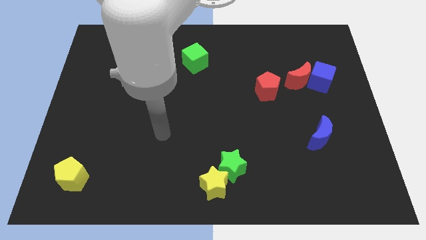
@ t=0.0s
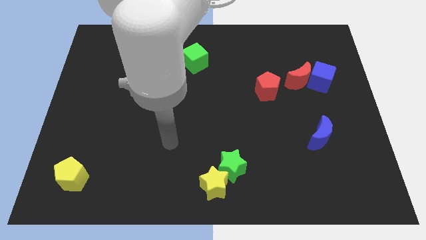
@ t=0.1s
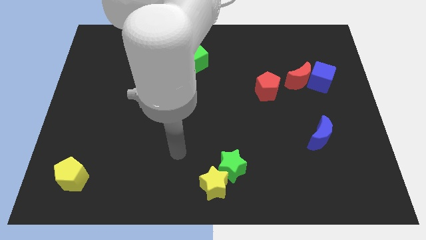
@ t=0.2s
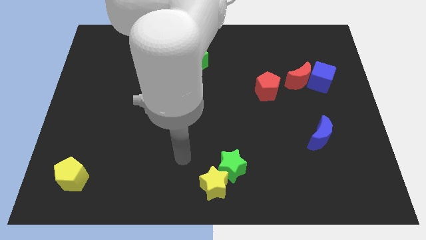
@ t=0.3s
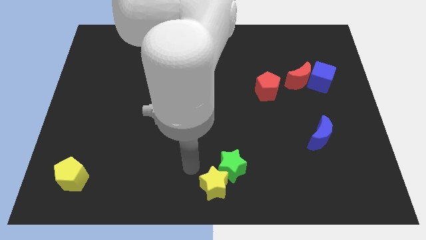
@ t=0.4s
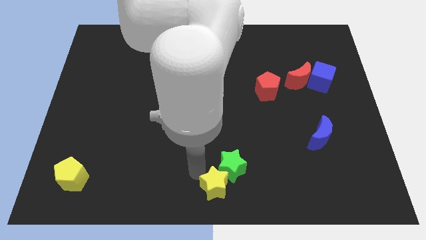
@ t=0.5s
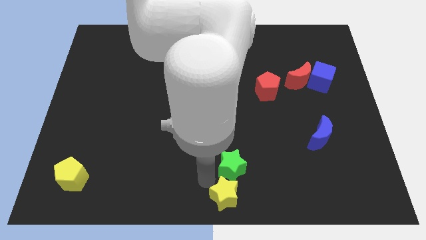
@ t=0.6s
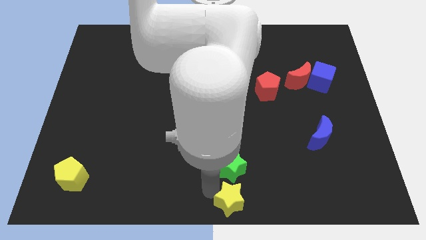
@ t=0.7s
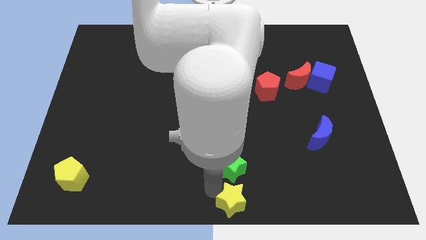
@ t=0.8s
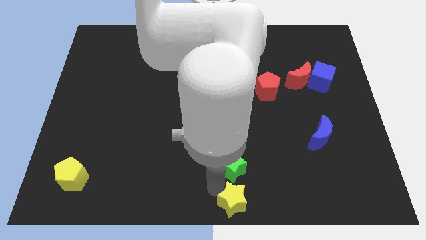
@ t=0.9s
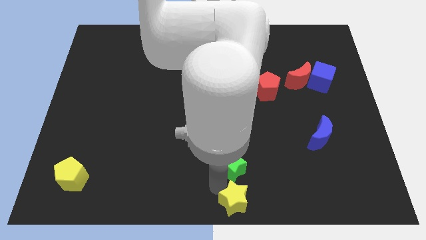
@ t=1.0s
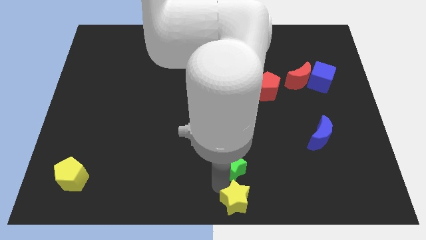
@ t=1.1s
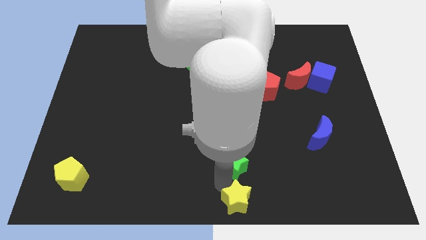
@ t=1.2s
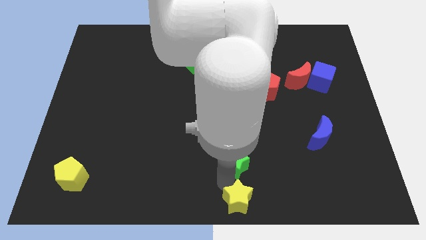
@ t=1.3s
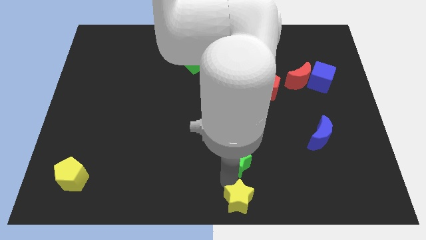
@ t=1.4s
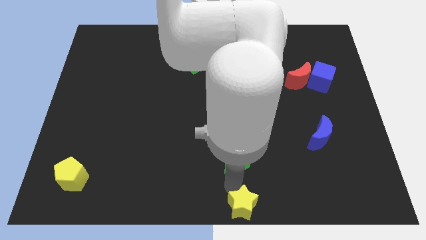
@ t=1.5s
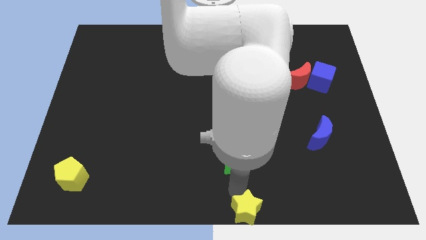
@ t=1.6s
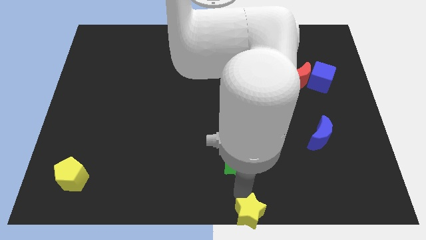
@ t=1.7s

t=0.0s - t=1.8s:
move the green star away from the yellow star

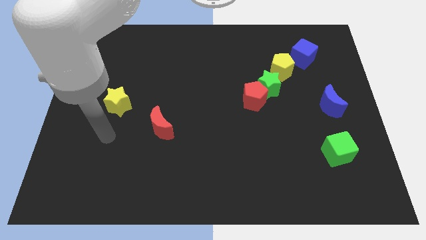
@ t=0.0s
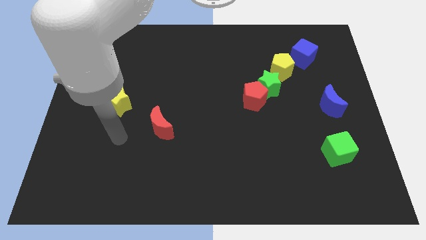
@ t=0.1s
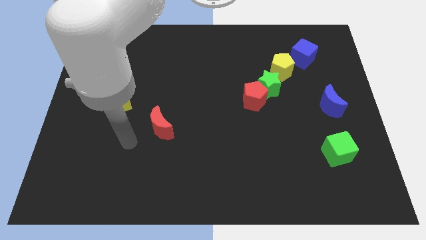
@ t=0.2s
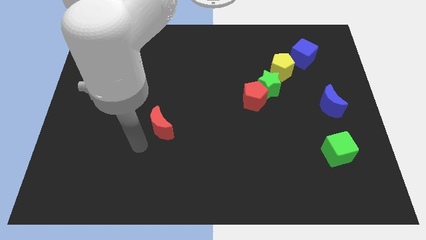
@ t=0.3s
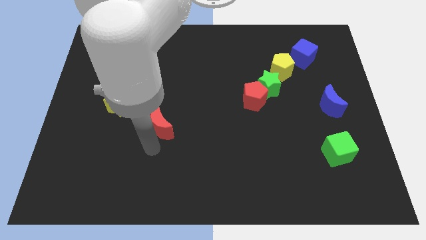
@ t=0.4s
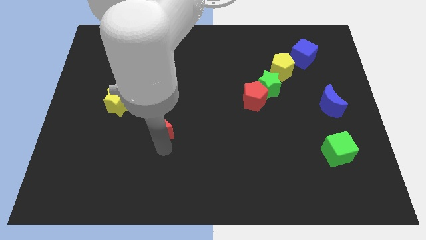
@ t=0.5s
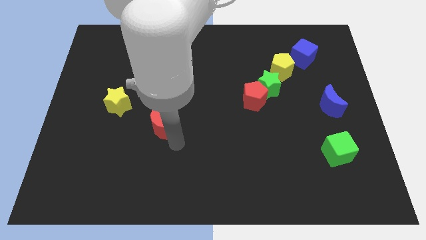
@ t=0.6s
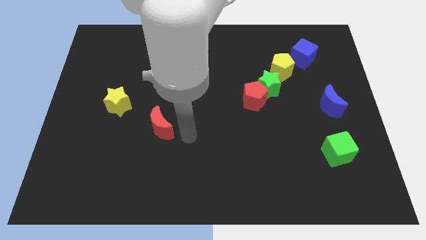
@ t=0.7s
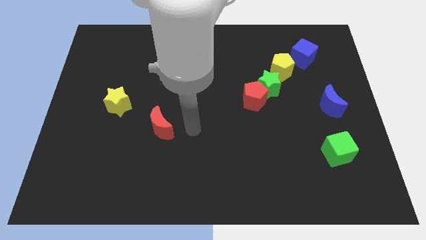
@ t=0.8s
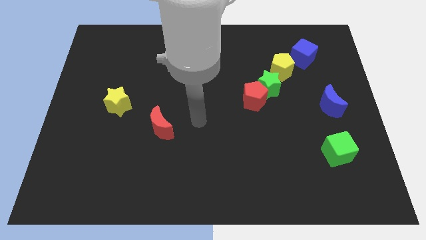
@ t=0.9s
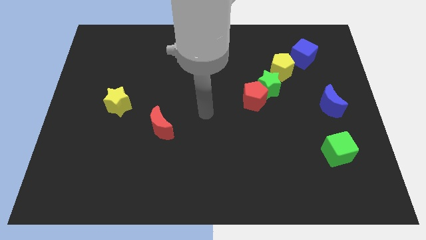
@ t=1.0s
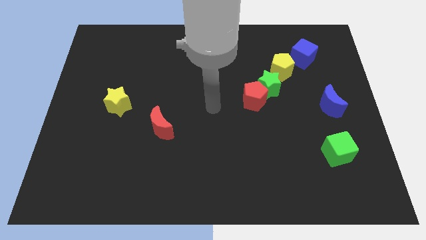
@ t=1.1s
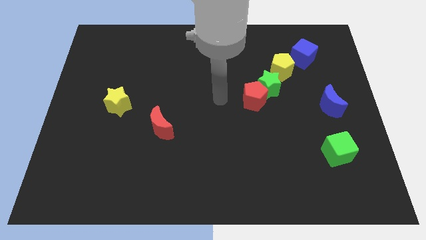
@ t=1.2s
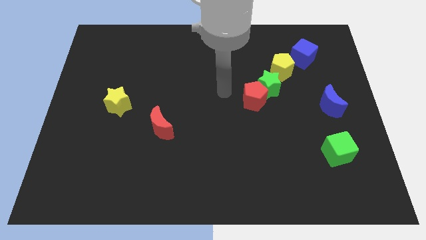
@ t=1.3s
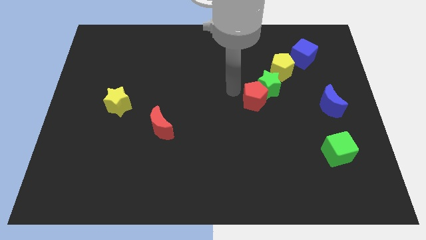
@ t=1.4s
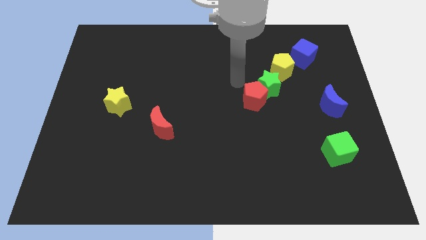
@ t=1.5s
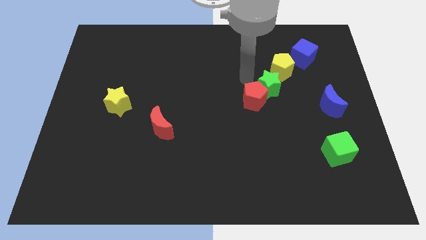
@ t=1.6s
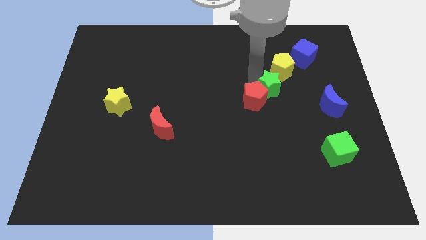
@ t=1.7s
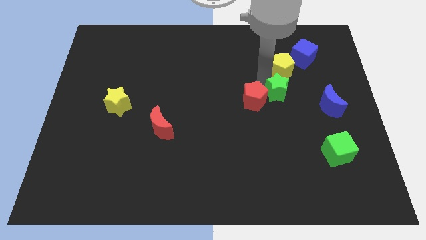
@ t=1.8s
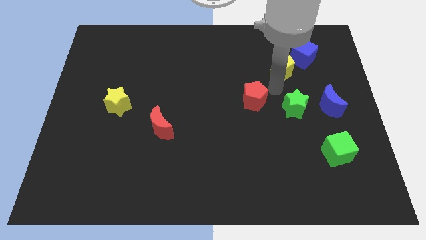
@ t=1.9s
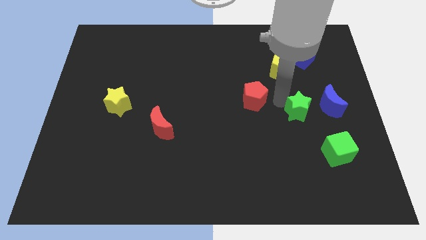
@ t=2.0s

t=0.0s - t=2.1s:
move the red pentagon away from the green star

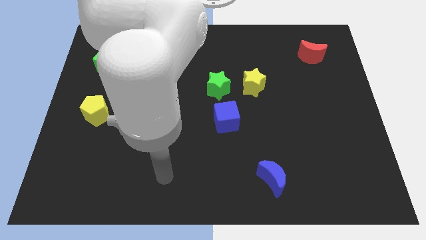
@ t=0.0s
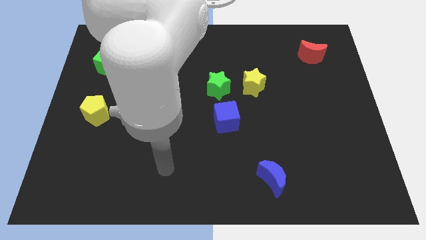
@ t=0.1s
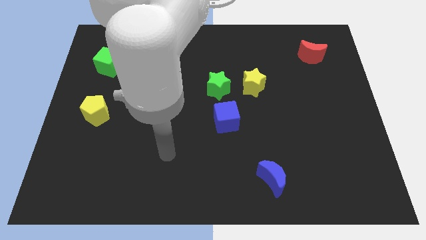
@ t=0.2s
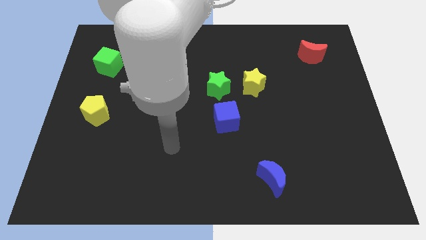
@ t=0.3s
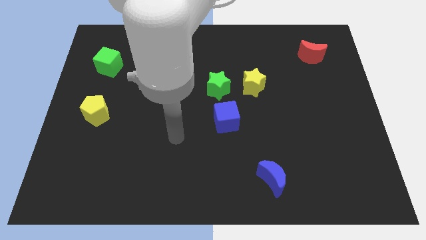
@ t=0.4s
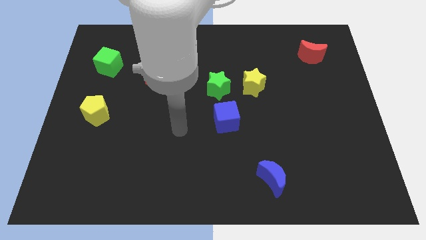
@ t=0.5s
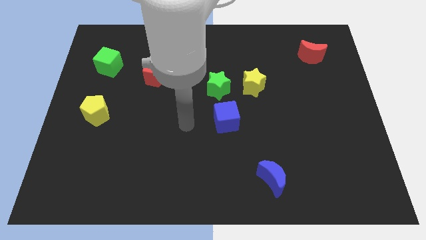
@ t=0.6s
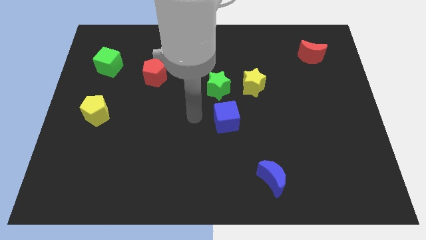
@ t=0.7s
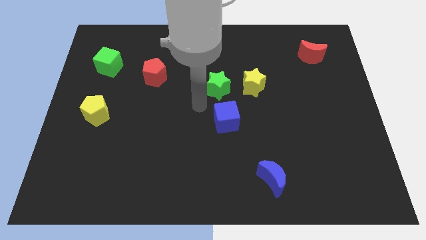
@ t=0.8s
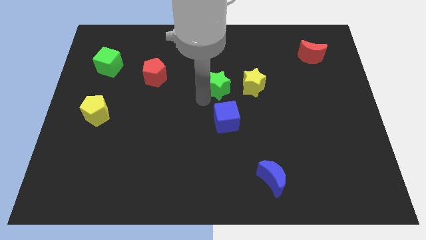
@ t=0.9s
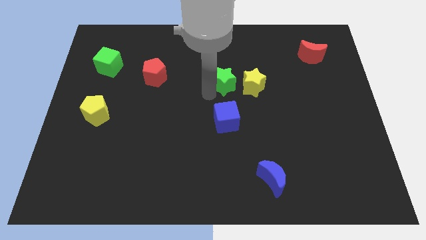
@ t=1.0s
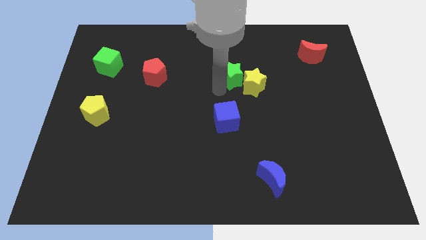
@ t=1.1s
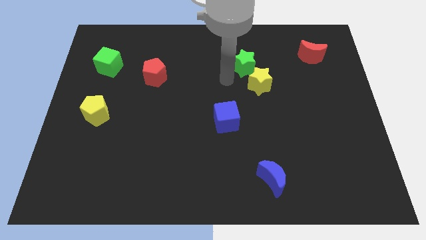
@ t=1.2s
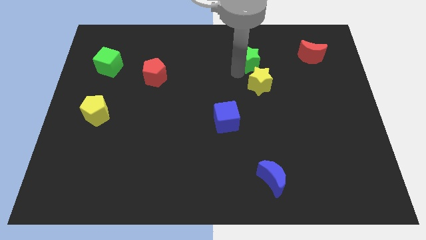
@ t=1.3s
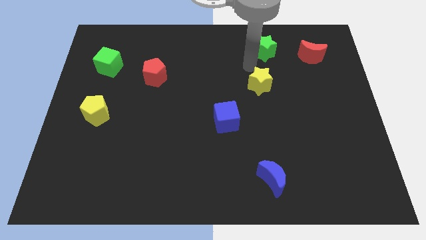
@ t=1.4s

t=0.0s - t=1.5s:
pull the yellow star apart from the green star

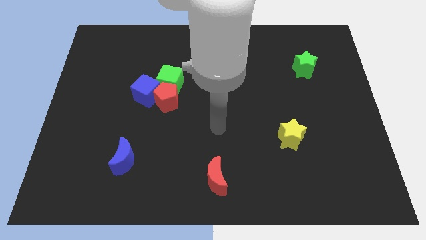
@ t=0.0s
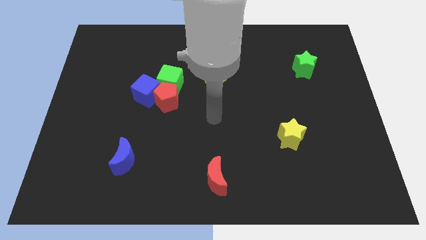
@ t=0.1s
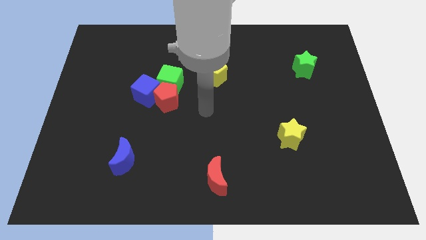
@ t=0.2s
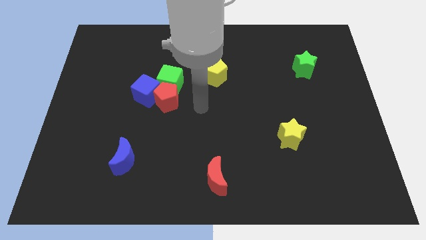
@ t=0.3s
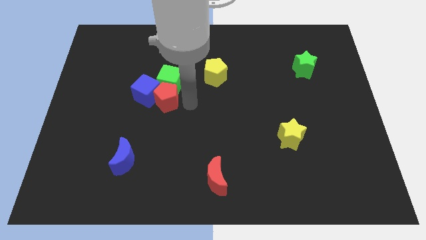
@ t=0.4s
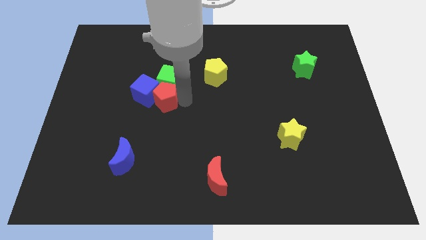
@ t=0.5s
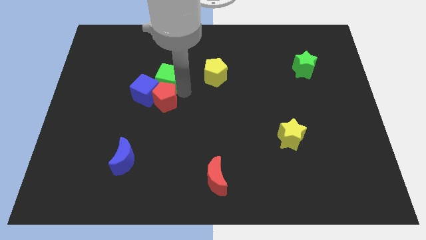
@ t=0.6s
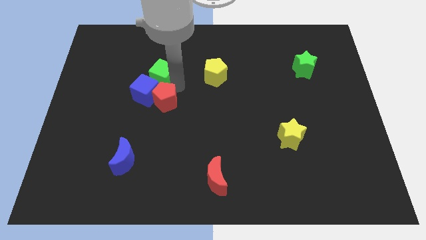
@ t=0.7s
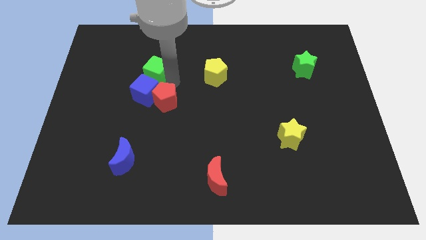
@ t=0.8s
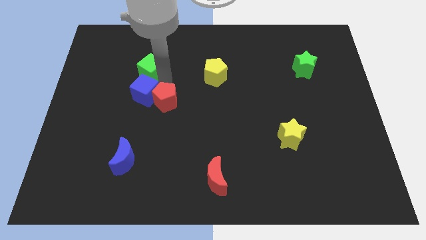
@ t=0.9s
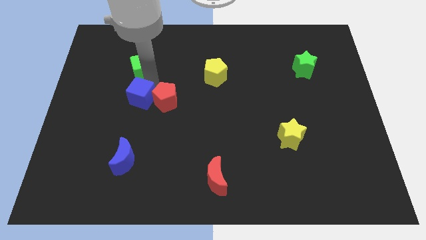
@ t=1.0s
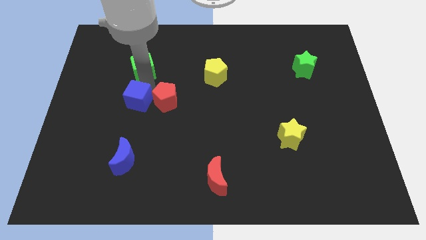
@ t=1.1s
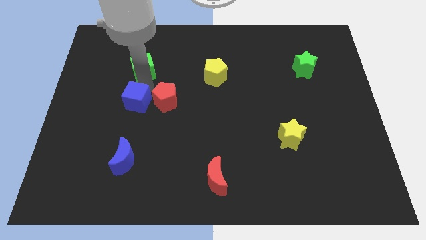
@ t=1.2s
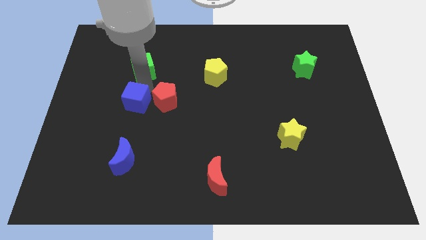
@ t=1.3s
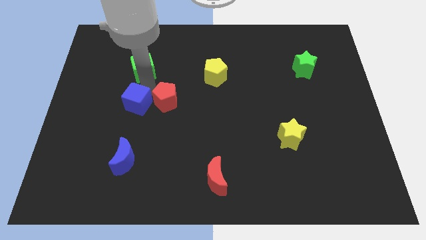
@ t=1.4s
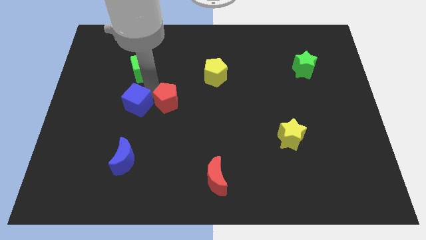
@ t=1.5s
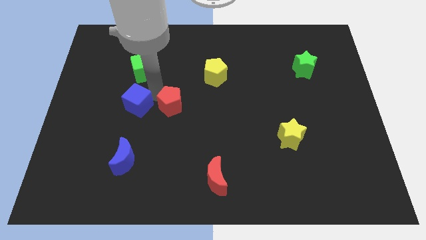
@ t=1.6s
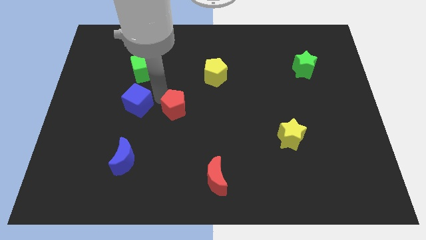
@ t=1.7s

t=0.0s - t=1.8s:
pull the red pentagon apart from the blue cube and green cube

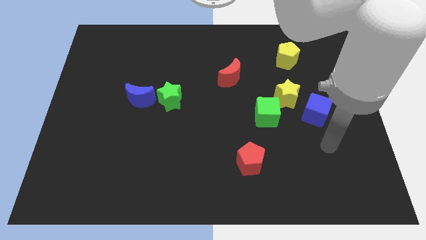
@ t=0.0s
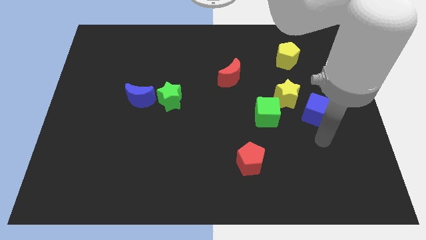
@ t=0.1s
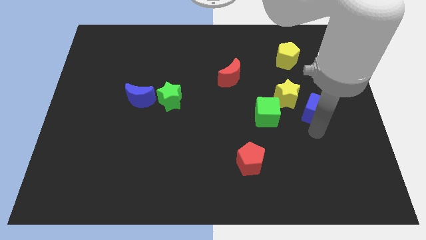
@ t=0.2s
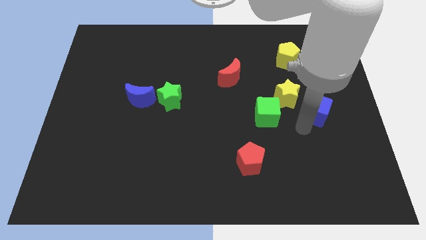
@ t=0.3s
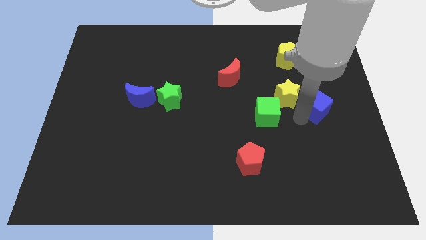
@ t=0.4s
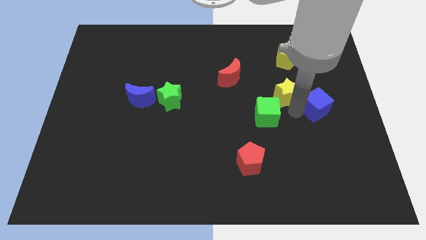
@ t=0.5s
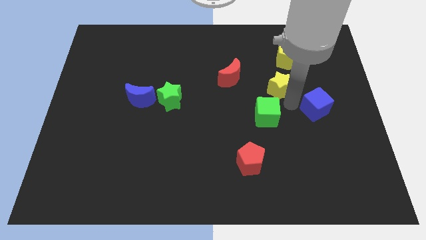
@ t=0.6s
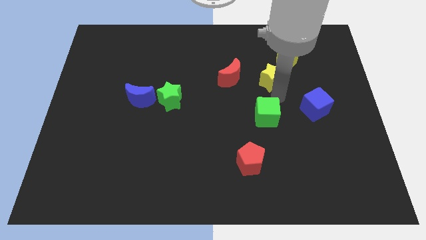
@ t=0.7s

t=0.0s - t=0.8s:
move the green cube away from the yellow star

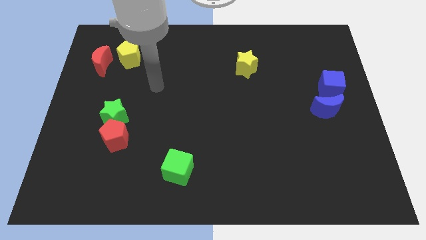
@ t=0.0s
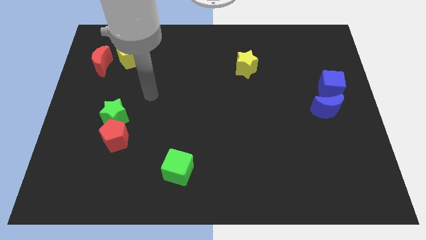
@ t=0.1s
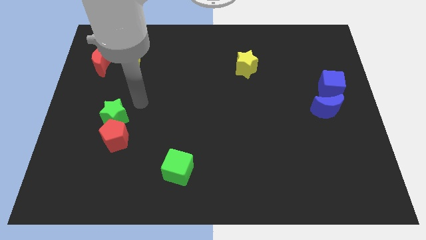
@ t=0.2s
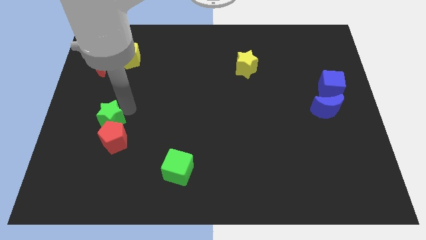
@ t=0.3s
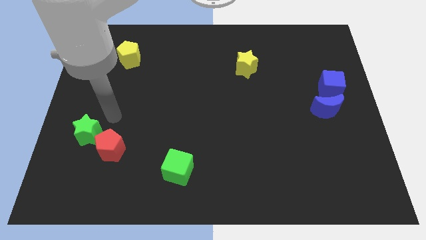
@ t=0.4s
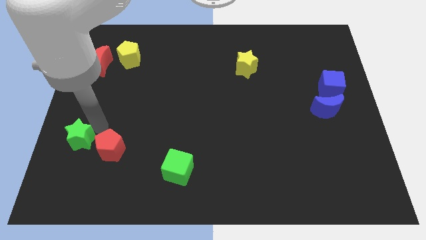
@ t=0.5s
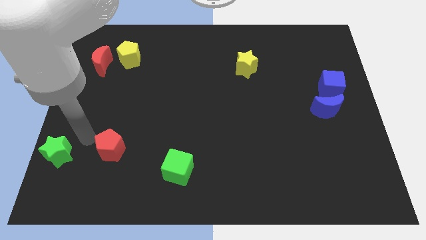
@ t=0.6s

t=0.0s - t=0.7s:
separate the red pentagon from the green star

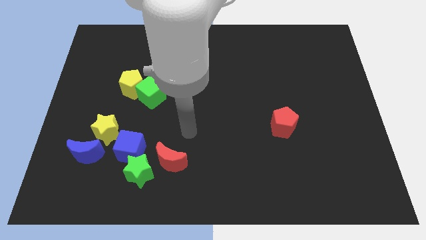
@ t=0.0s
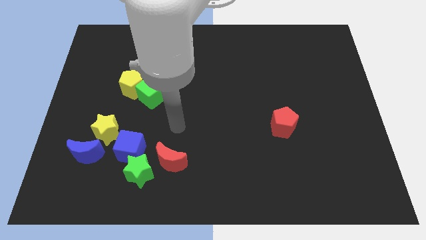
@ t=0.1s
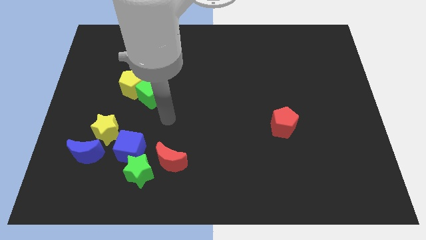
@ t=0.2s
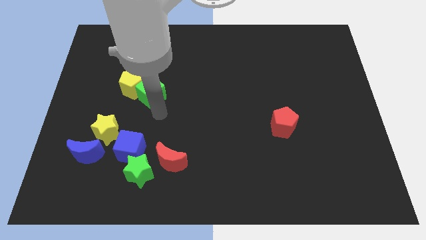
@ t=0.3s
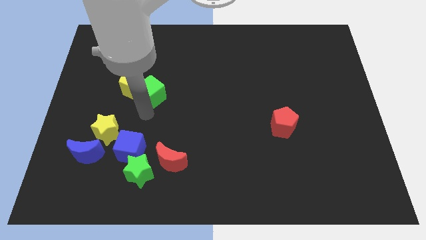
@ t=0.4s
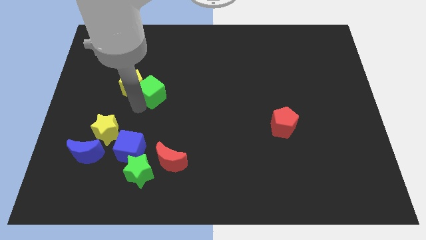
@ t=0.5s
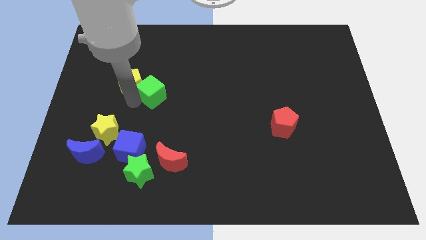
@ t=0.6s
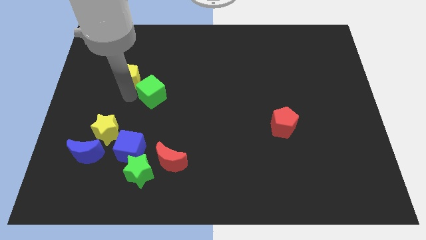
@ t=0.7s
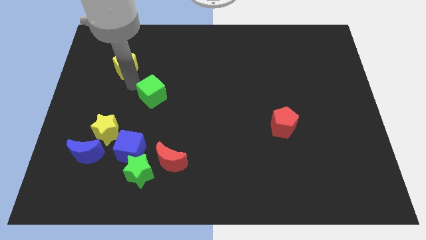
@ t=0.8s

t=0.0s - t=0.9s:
pull the green cube apart from the yellow pentagon
